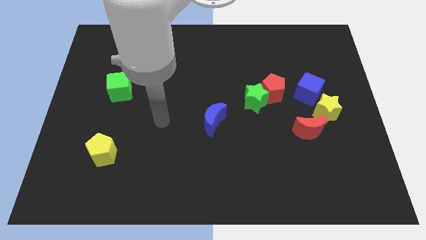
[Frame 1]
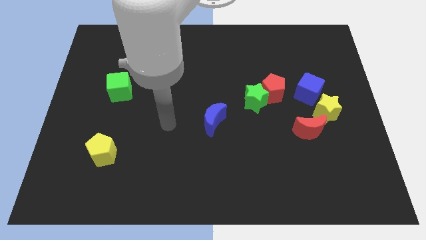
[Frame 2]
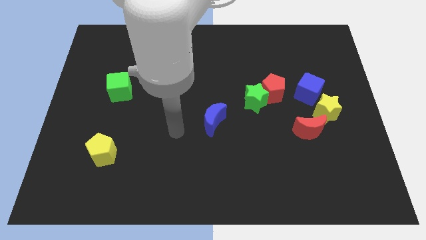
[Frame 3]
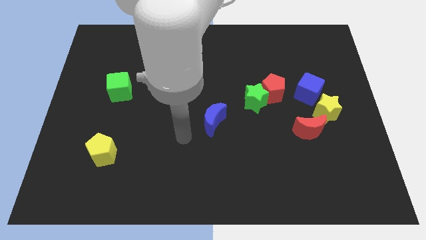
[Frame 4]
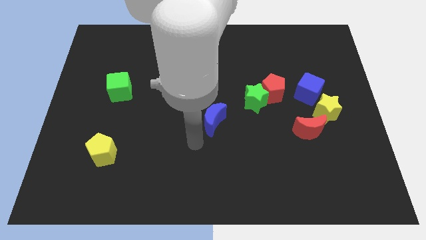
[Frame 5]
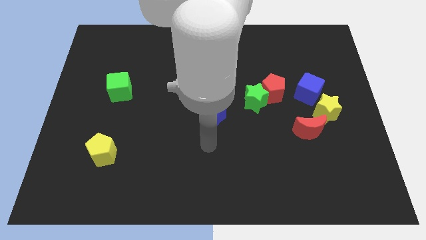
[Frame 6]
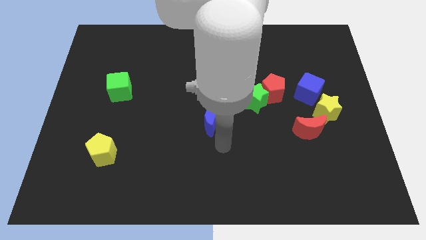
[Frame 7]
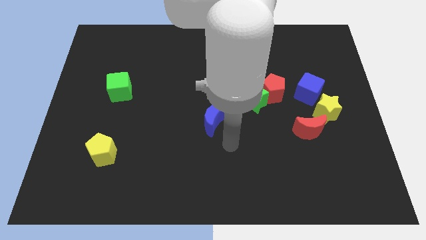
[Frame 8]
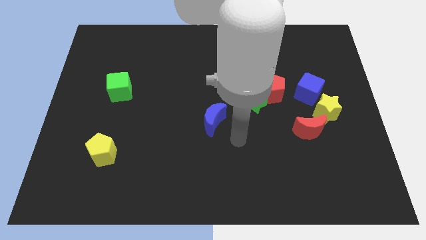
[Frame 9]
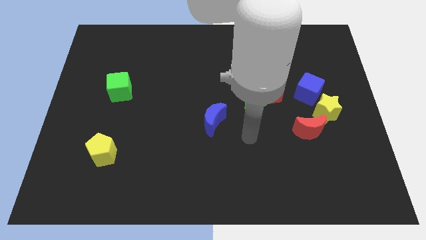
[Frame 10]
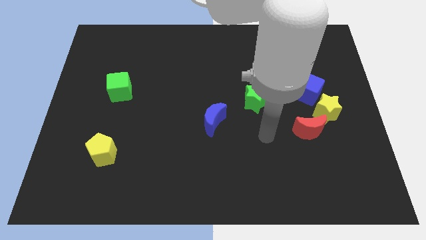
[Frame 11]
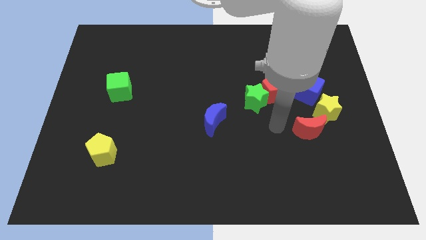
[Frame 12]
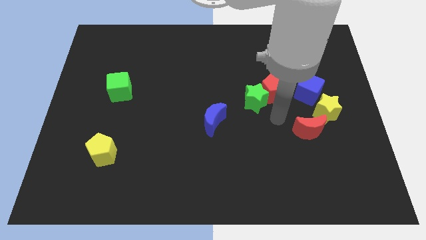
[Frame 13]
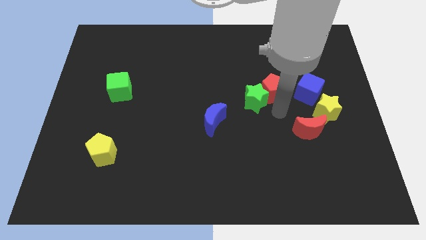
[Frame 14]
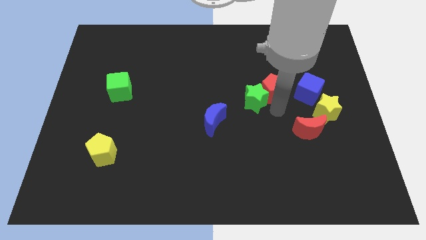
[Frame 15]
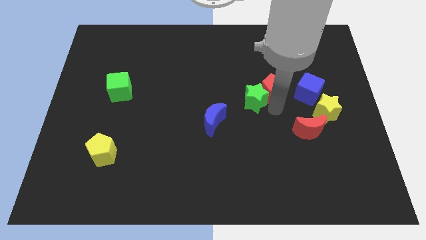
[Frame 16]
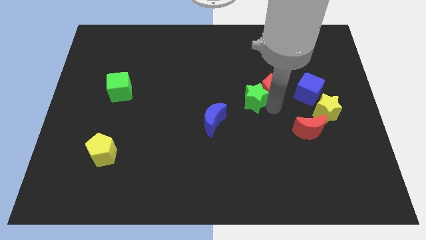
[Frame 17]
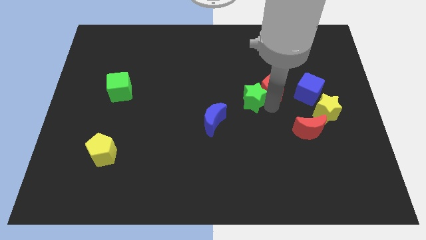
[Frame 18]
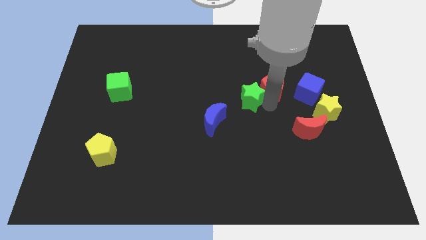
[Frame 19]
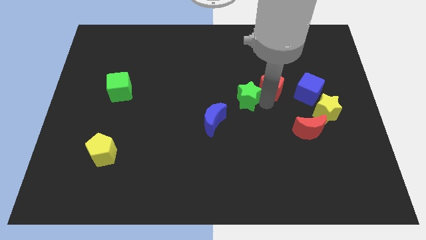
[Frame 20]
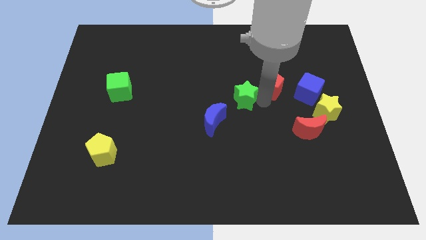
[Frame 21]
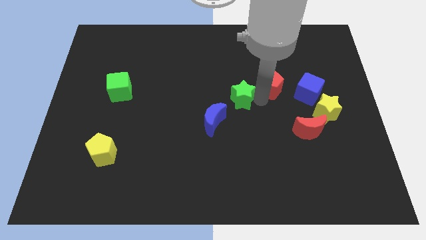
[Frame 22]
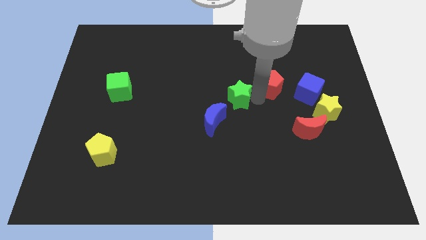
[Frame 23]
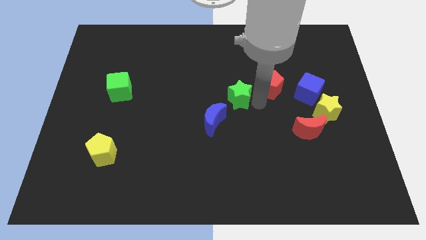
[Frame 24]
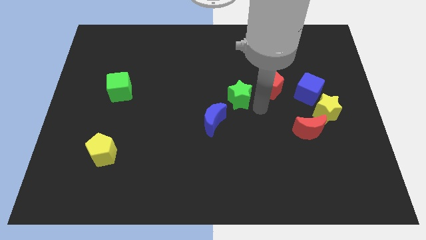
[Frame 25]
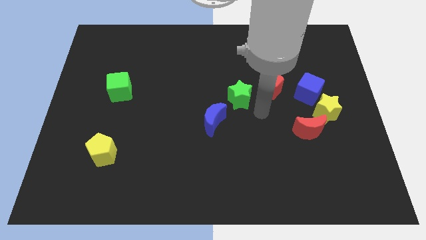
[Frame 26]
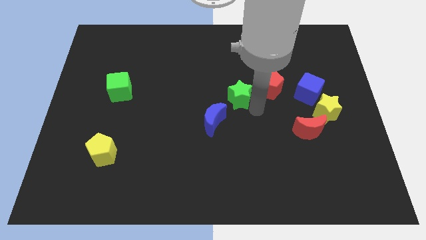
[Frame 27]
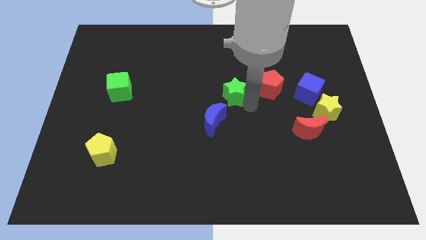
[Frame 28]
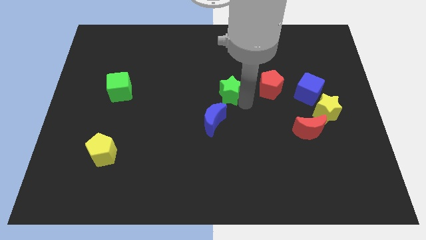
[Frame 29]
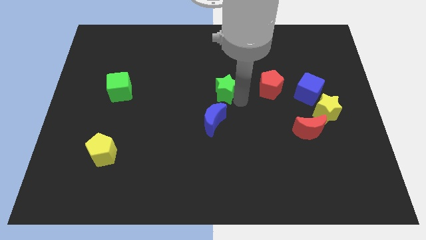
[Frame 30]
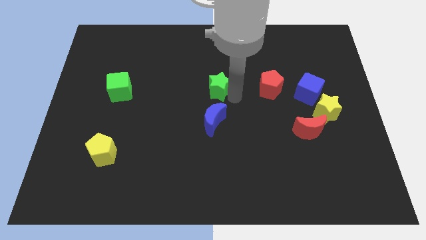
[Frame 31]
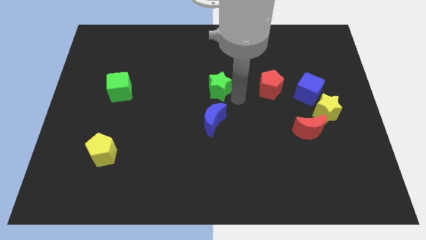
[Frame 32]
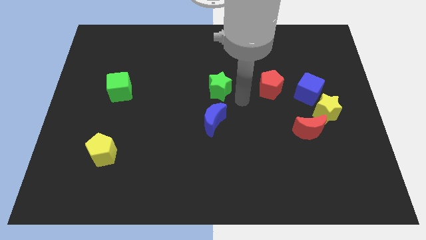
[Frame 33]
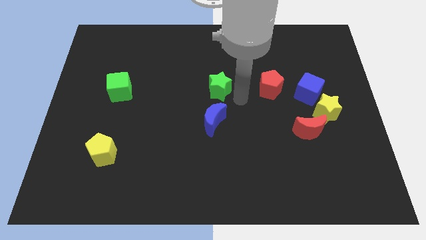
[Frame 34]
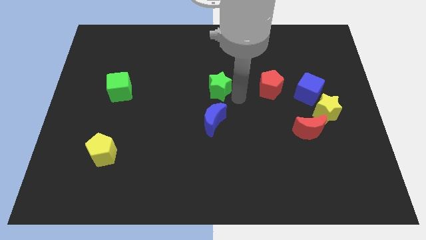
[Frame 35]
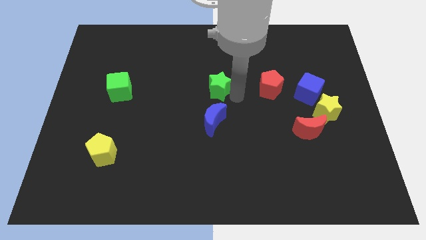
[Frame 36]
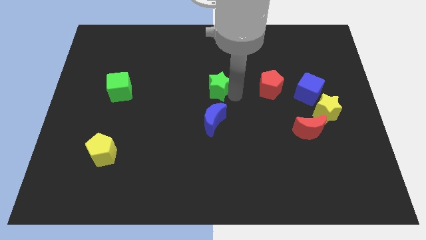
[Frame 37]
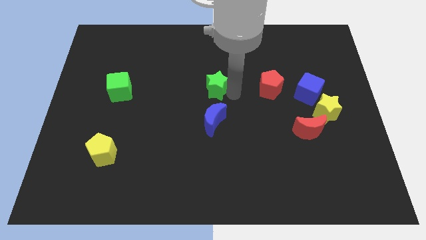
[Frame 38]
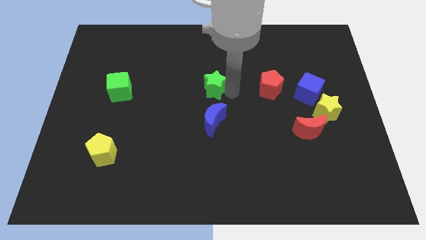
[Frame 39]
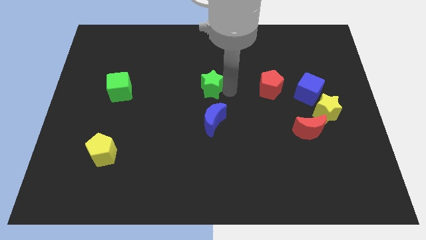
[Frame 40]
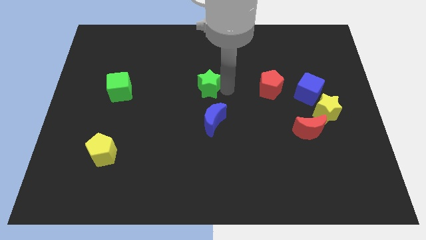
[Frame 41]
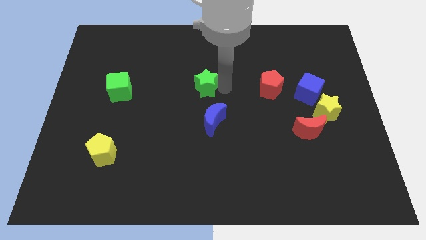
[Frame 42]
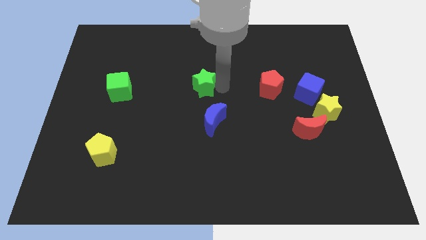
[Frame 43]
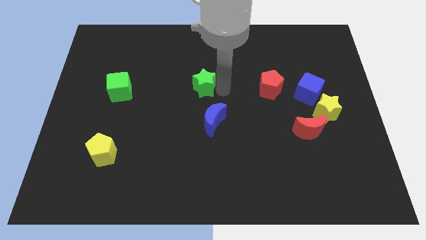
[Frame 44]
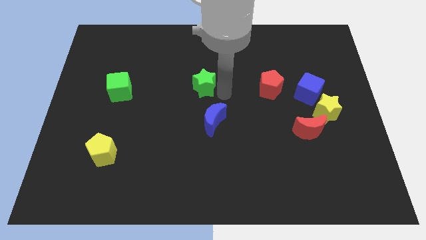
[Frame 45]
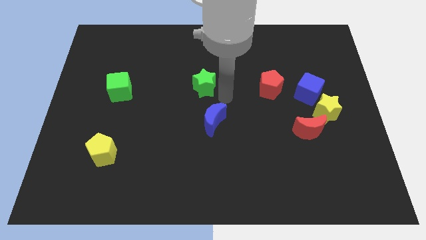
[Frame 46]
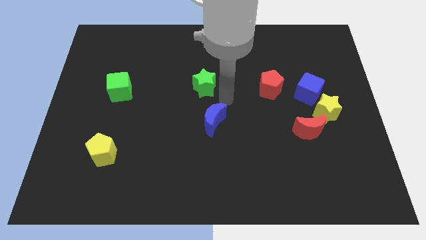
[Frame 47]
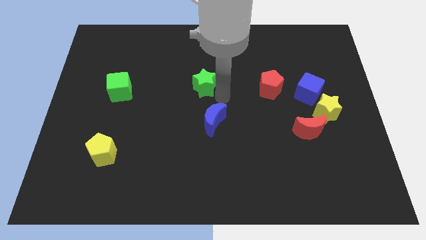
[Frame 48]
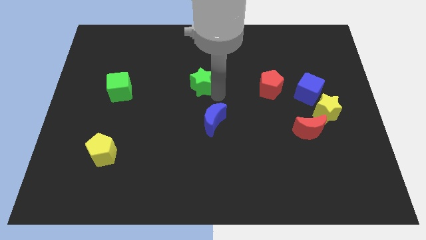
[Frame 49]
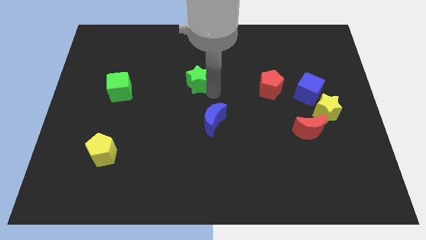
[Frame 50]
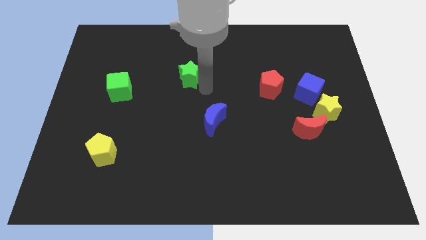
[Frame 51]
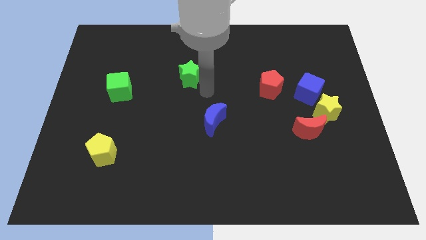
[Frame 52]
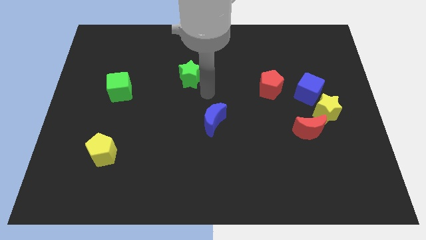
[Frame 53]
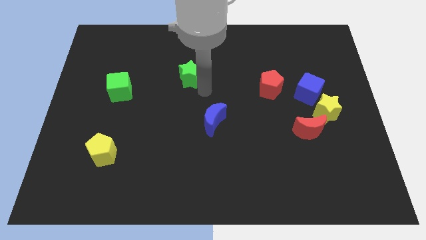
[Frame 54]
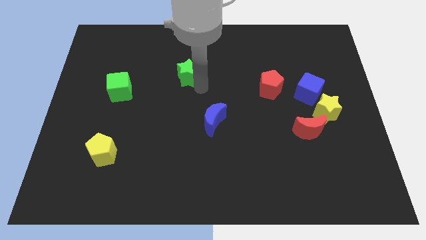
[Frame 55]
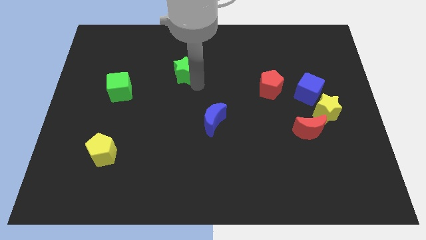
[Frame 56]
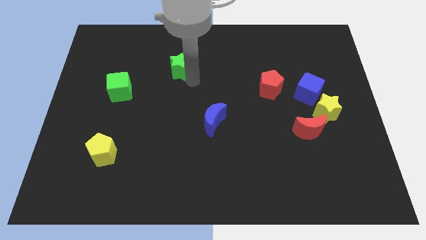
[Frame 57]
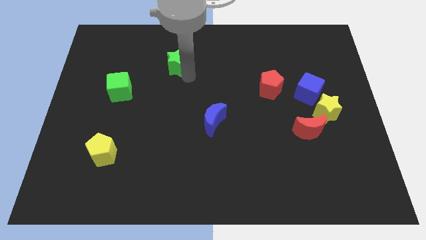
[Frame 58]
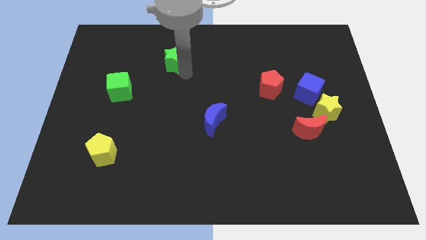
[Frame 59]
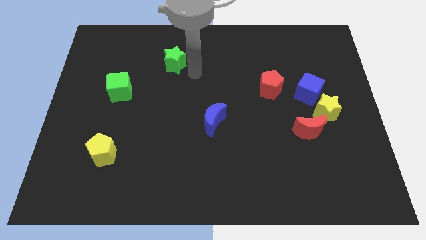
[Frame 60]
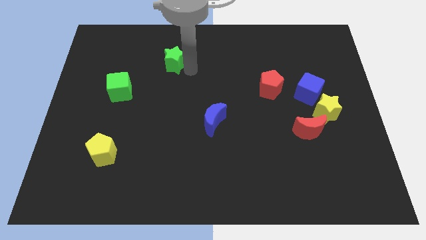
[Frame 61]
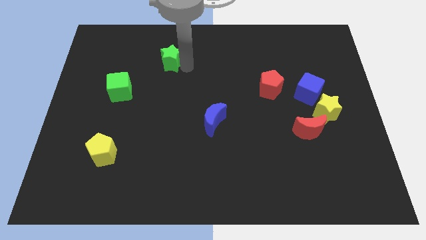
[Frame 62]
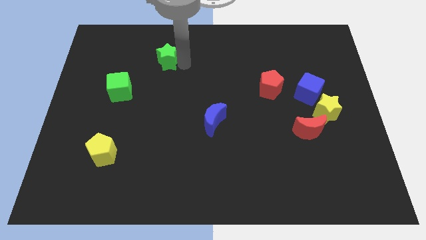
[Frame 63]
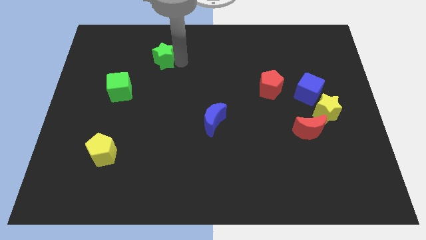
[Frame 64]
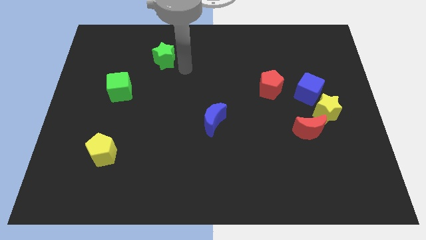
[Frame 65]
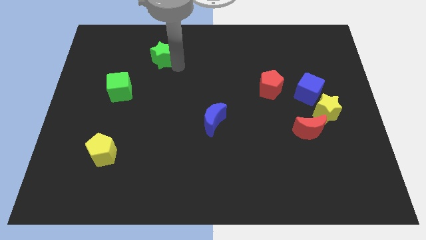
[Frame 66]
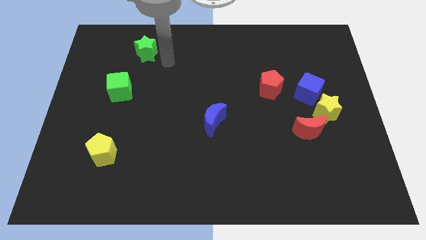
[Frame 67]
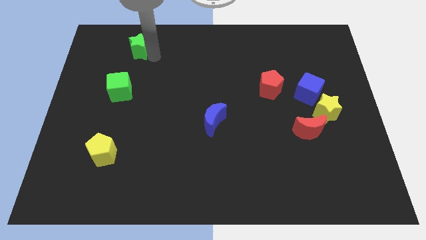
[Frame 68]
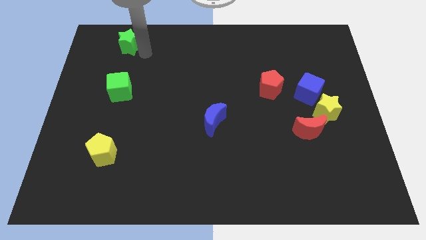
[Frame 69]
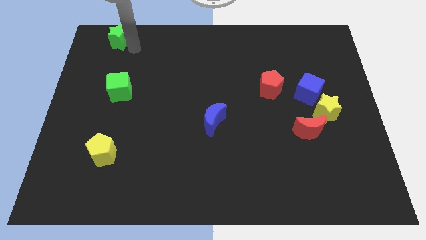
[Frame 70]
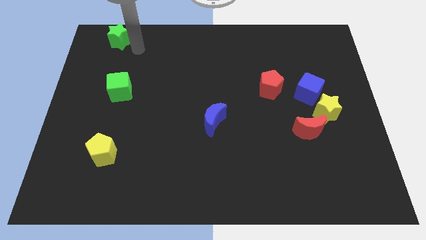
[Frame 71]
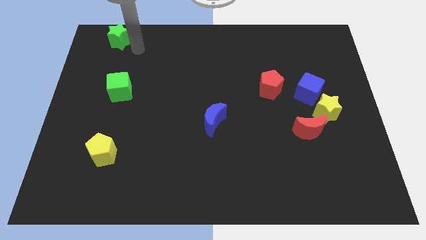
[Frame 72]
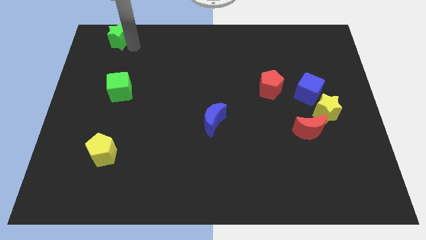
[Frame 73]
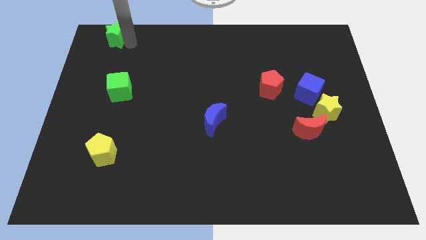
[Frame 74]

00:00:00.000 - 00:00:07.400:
put the green star to the upper left corner
